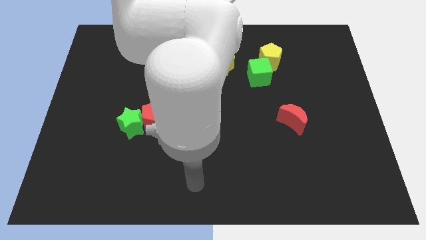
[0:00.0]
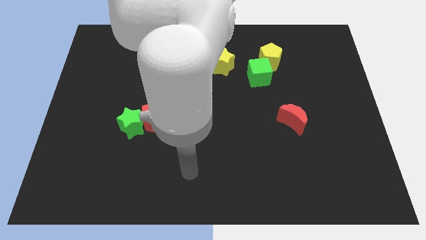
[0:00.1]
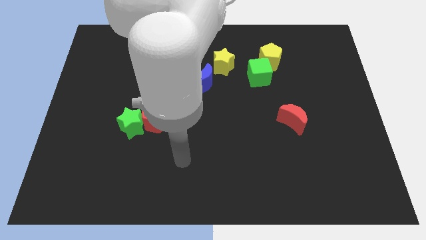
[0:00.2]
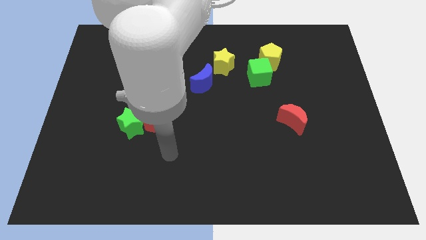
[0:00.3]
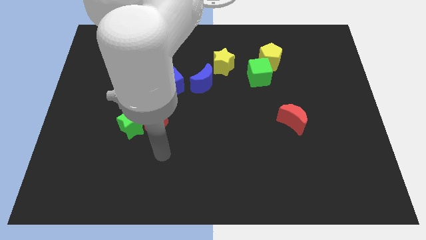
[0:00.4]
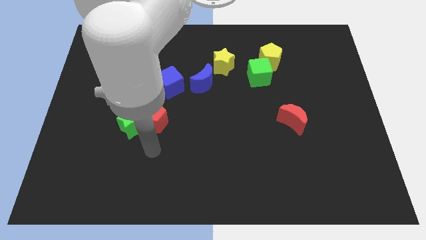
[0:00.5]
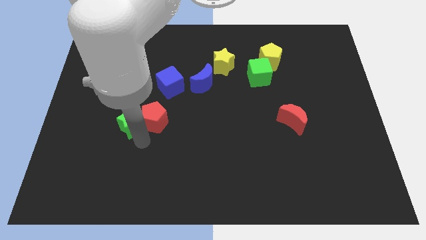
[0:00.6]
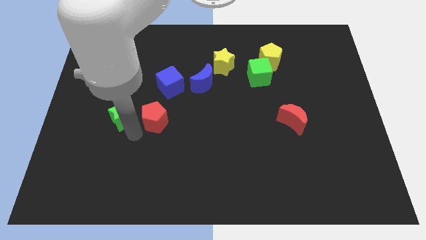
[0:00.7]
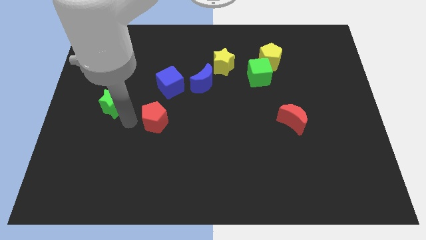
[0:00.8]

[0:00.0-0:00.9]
move the red pentagon away from the green star

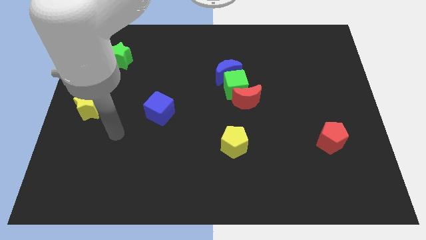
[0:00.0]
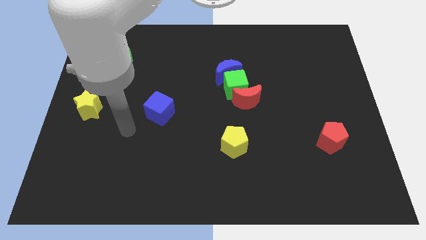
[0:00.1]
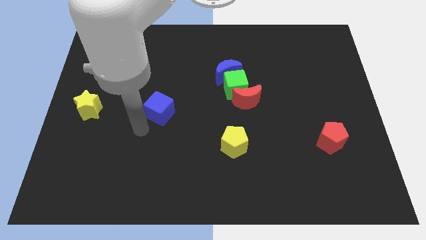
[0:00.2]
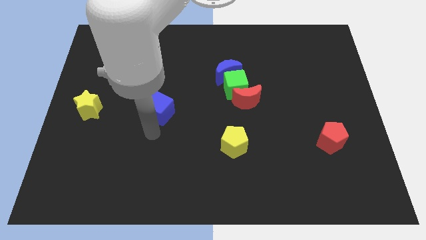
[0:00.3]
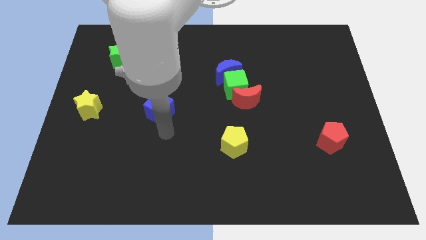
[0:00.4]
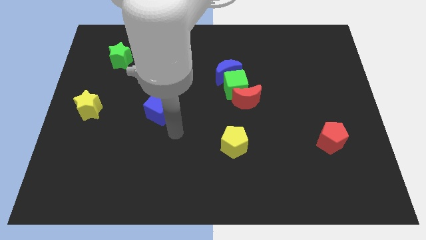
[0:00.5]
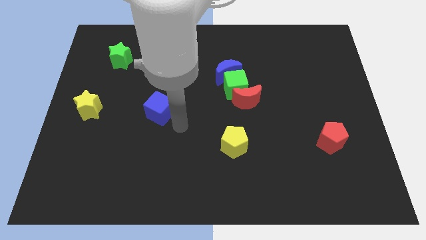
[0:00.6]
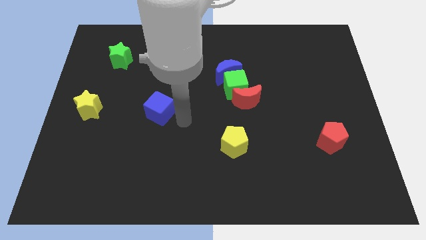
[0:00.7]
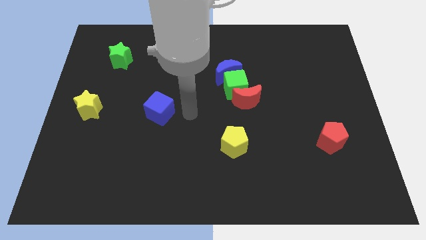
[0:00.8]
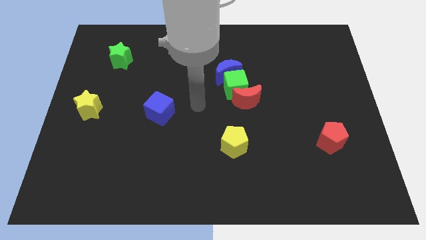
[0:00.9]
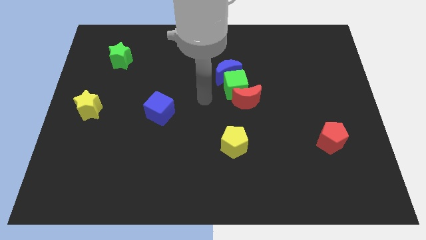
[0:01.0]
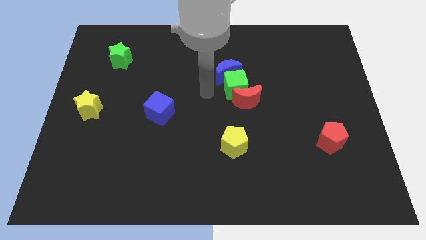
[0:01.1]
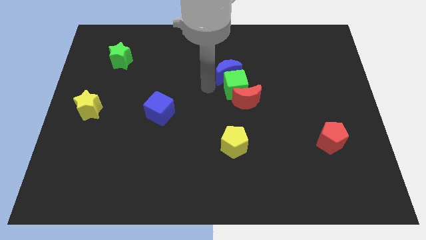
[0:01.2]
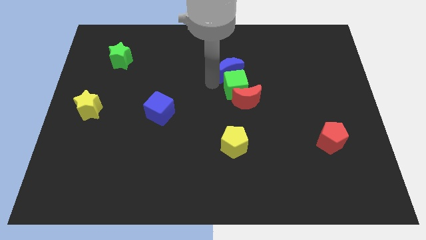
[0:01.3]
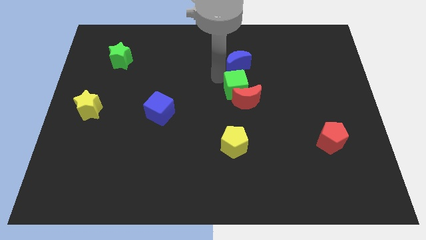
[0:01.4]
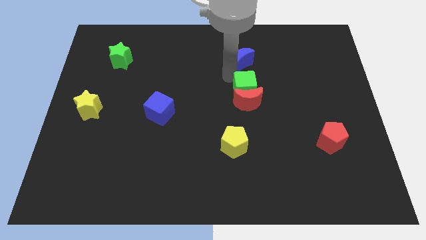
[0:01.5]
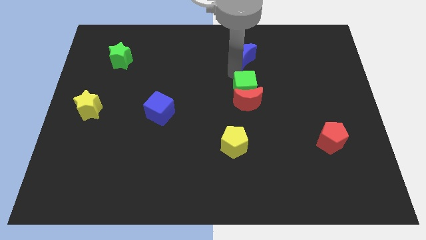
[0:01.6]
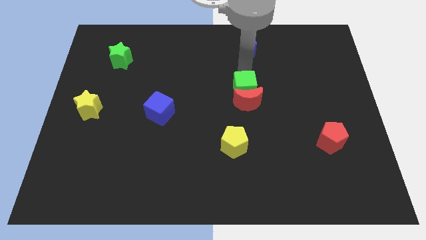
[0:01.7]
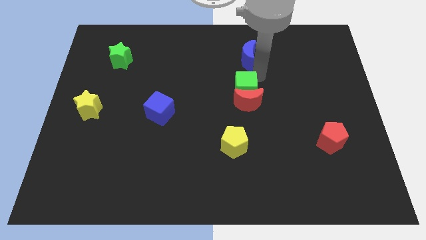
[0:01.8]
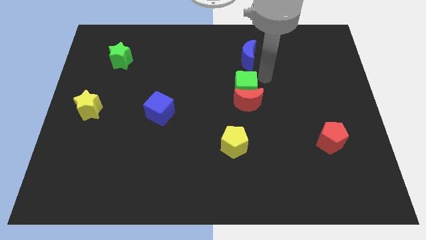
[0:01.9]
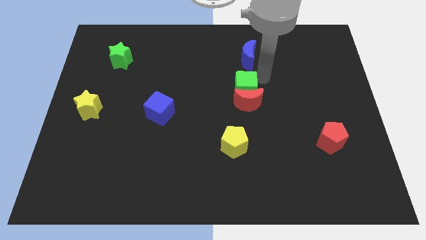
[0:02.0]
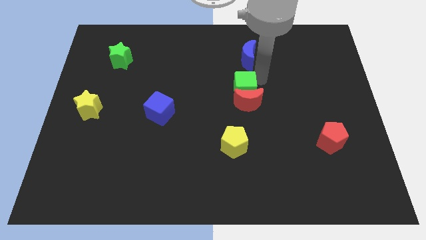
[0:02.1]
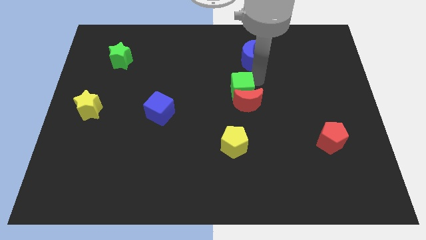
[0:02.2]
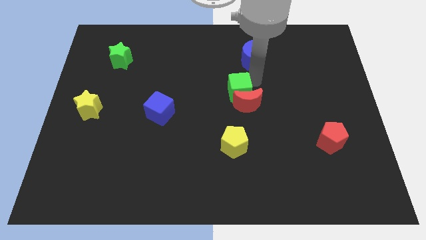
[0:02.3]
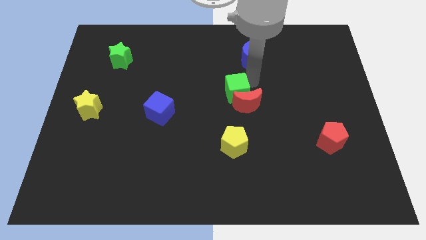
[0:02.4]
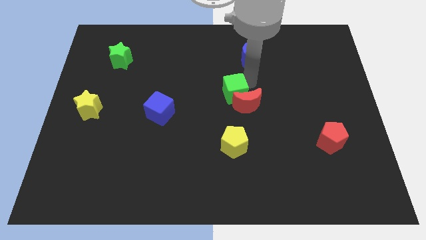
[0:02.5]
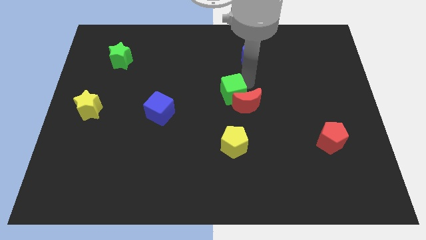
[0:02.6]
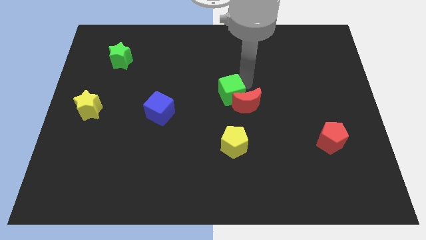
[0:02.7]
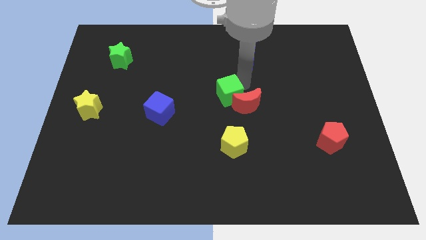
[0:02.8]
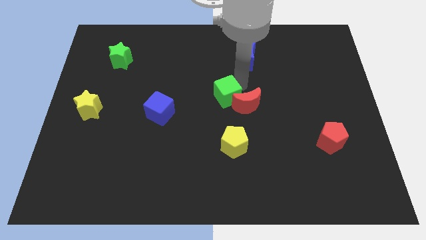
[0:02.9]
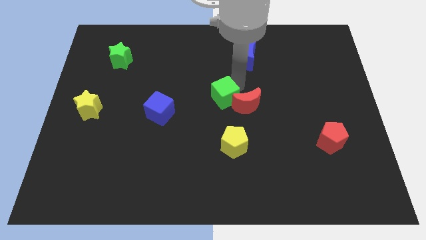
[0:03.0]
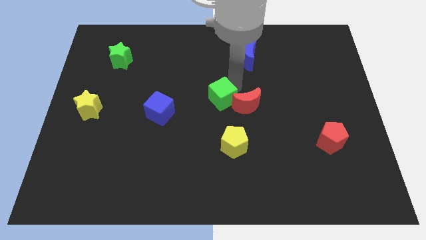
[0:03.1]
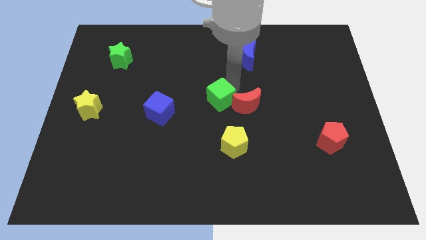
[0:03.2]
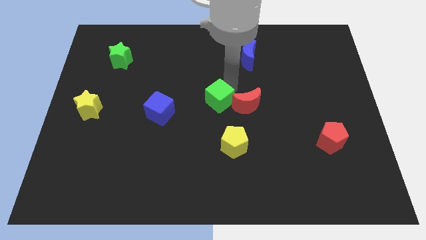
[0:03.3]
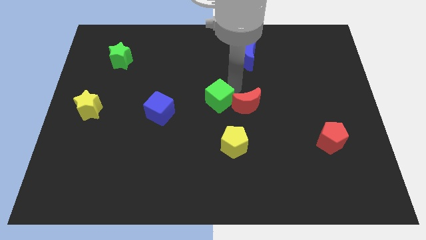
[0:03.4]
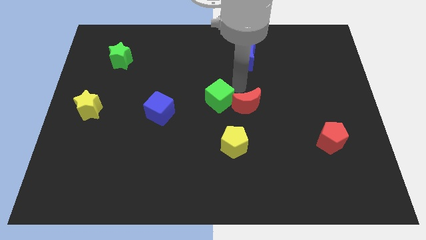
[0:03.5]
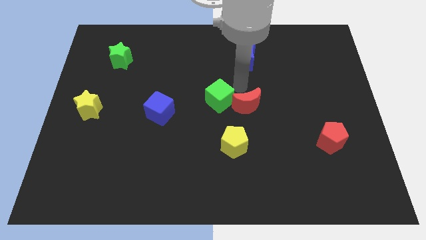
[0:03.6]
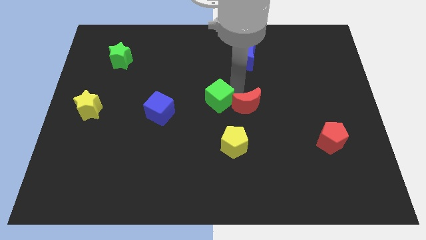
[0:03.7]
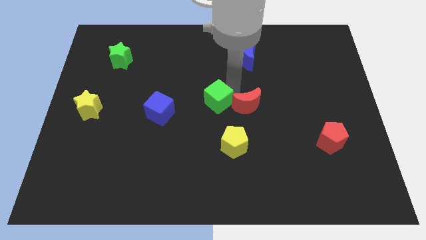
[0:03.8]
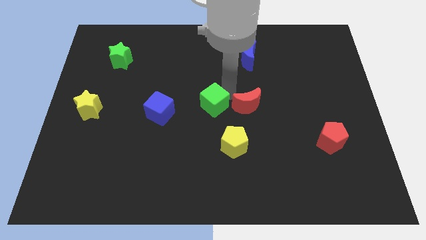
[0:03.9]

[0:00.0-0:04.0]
pull the green cube apart from the red moon and blue moon

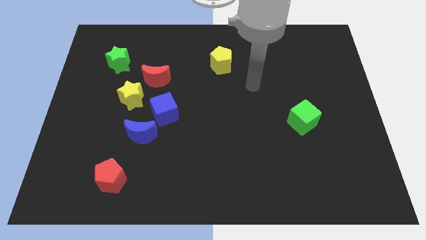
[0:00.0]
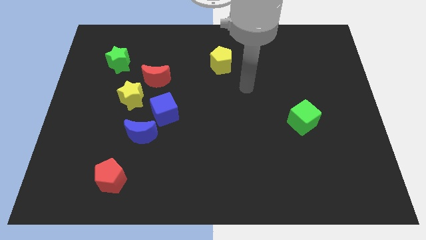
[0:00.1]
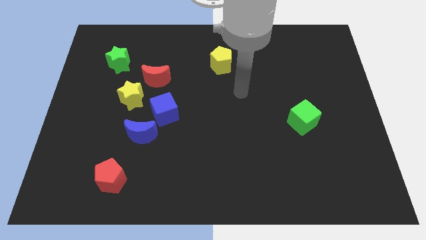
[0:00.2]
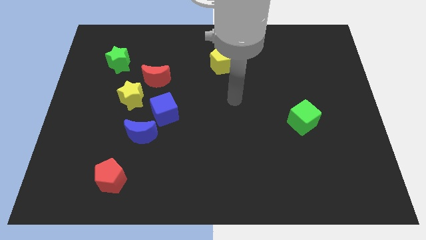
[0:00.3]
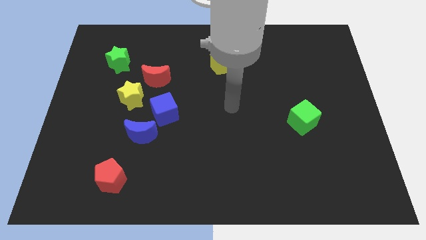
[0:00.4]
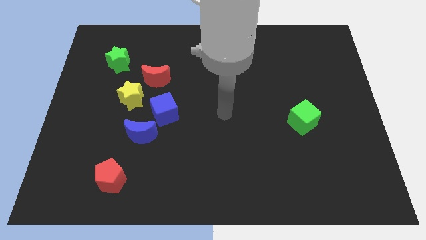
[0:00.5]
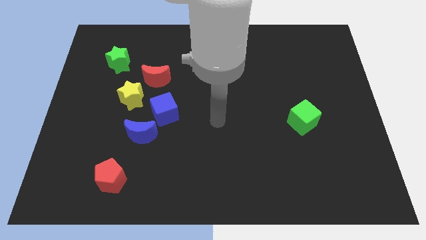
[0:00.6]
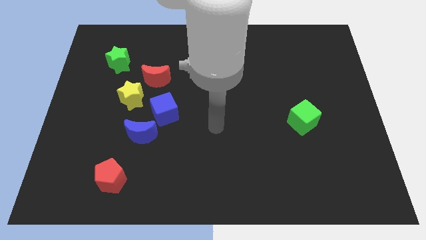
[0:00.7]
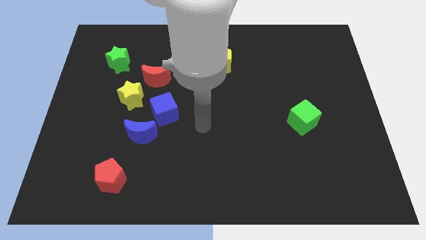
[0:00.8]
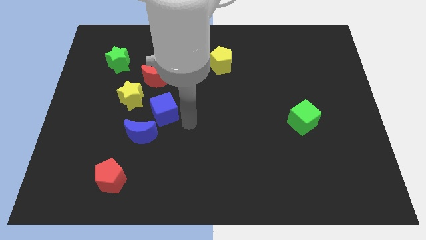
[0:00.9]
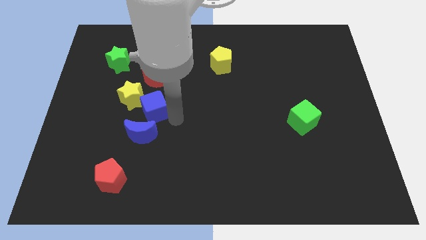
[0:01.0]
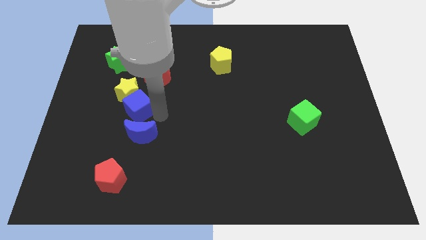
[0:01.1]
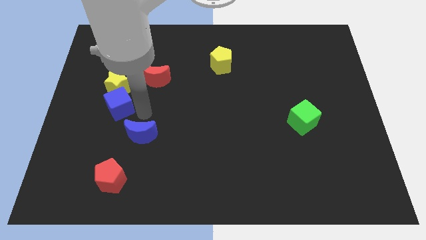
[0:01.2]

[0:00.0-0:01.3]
separate the blue moon from the blue cube

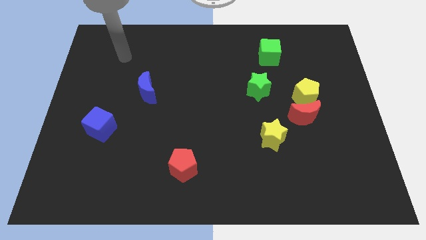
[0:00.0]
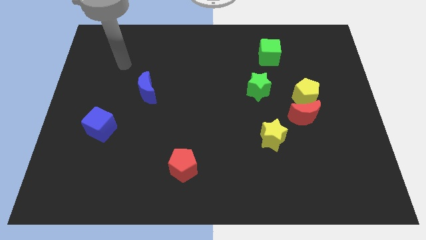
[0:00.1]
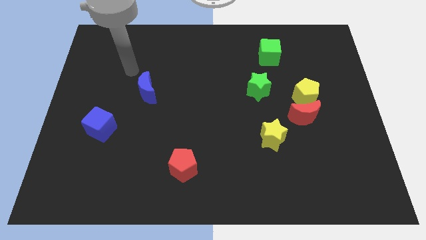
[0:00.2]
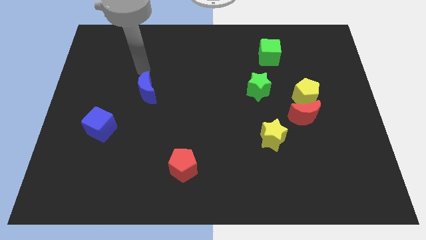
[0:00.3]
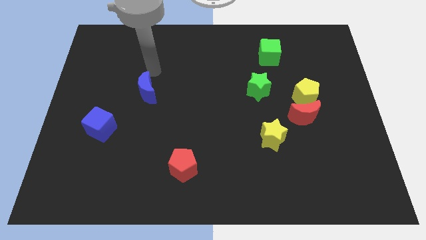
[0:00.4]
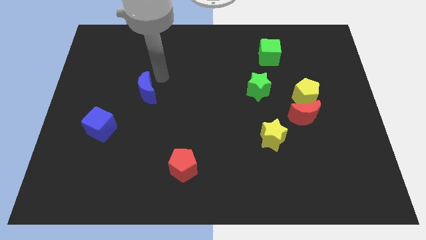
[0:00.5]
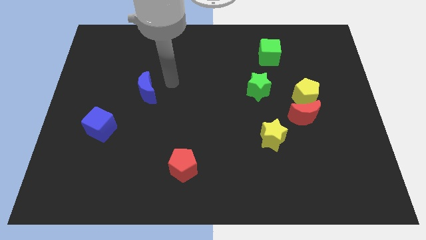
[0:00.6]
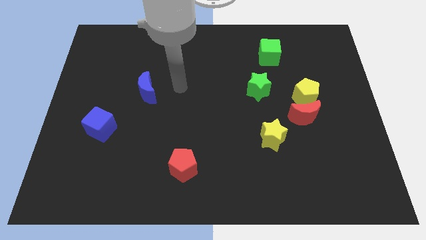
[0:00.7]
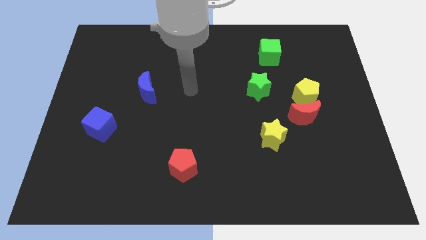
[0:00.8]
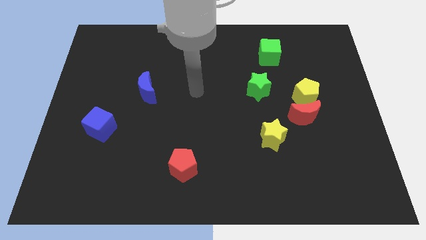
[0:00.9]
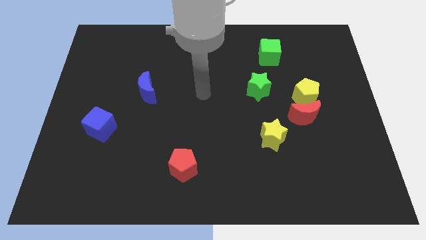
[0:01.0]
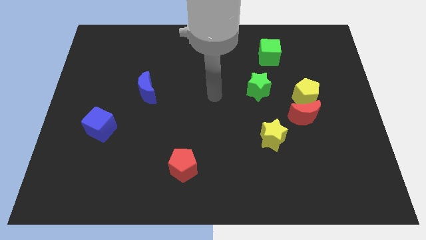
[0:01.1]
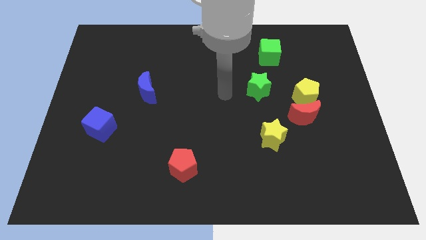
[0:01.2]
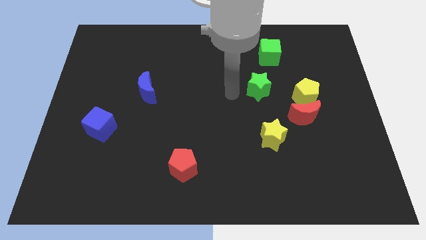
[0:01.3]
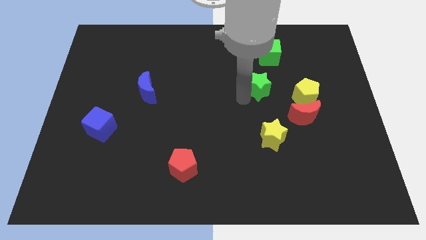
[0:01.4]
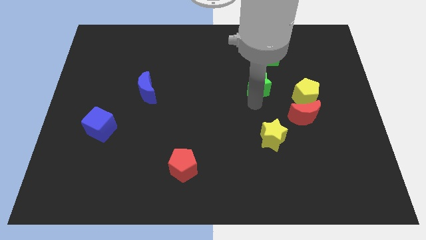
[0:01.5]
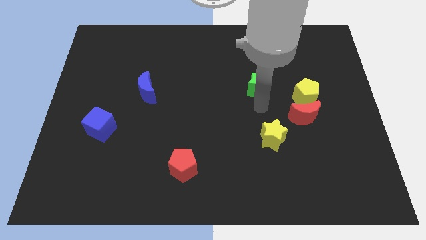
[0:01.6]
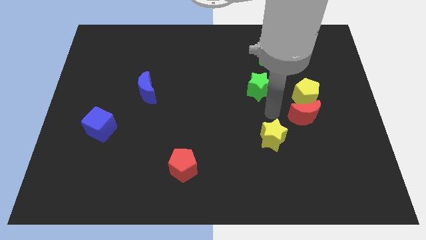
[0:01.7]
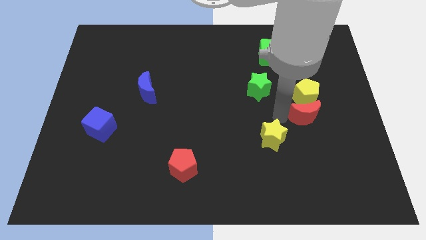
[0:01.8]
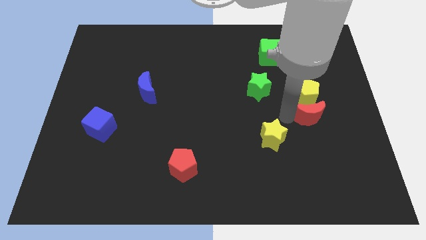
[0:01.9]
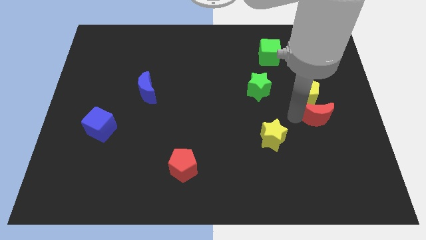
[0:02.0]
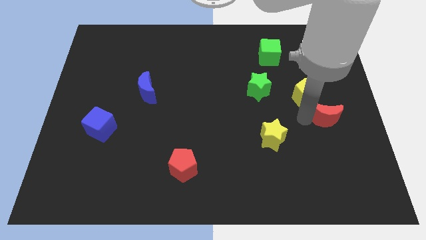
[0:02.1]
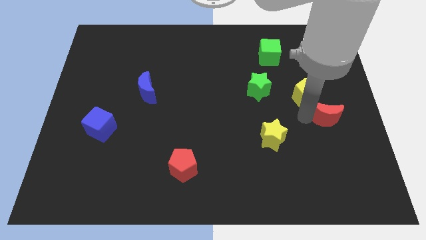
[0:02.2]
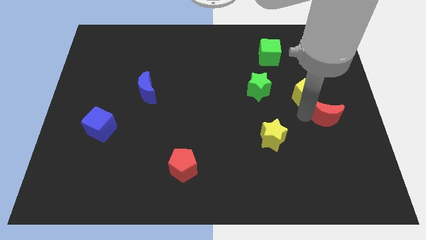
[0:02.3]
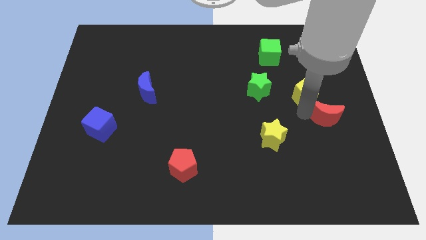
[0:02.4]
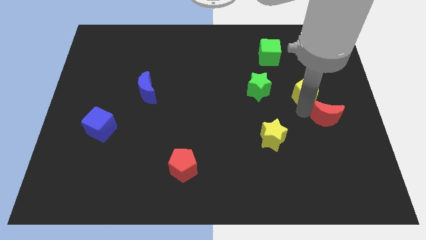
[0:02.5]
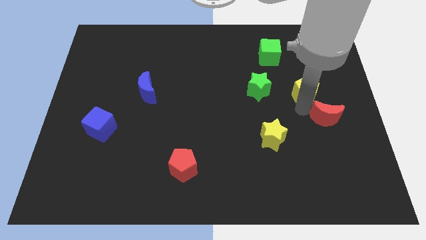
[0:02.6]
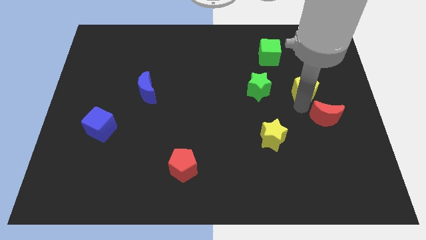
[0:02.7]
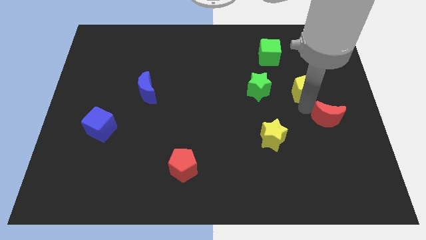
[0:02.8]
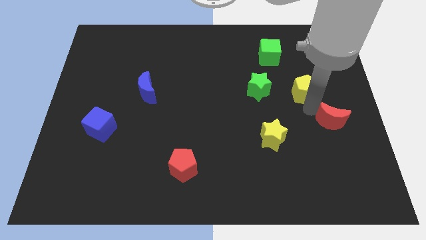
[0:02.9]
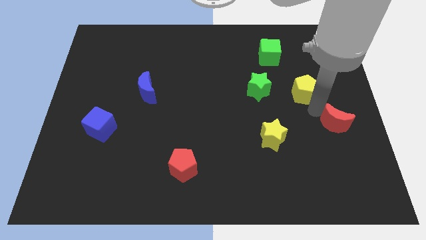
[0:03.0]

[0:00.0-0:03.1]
move the yellow pentagon away from the red moon

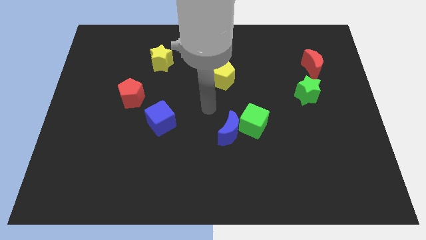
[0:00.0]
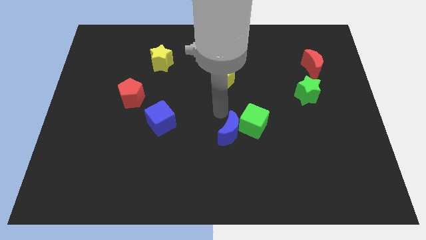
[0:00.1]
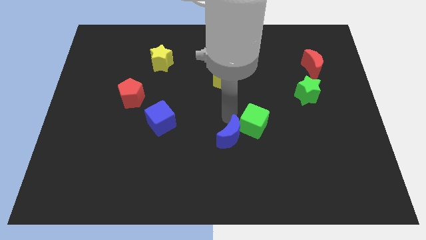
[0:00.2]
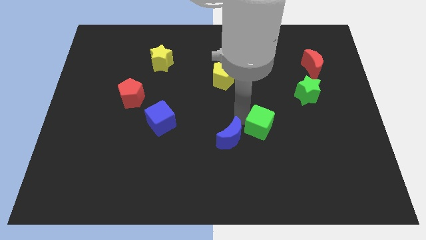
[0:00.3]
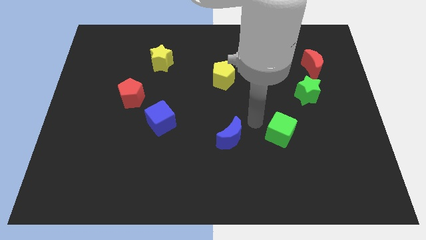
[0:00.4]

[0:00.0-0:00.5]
pull the blue moon apart from the green cube
